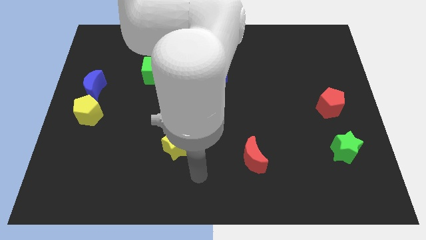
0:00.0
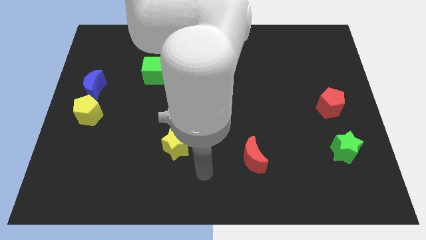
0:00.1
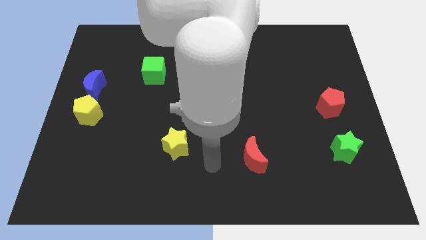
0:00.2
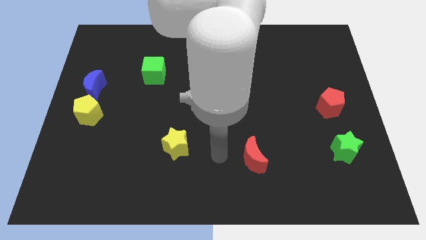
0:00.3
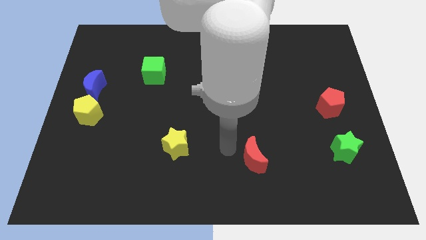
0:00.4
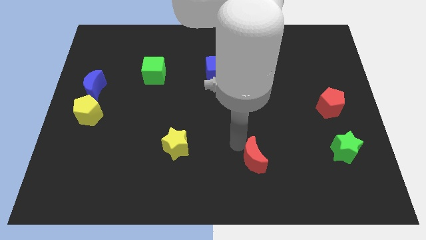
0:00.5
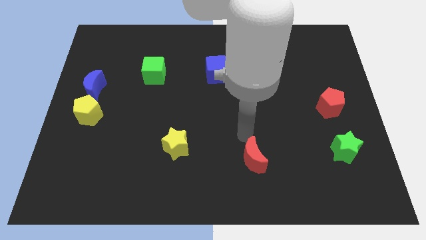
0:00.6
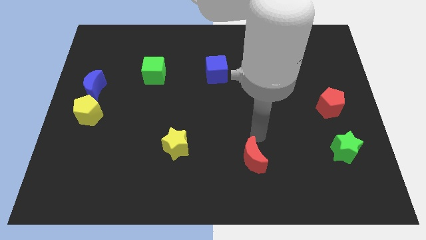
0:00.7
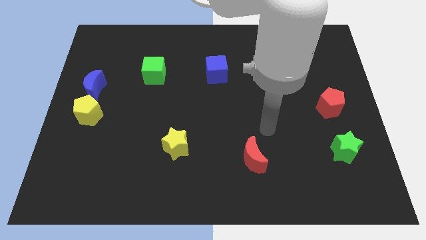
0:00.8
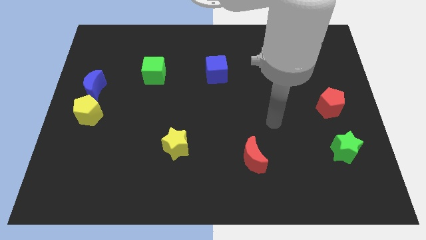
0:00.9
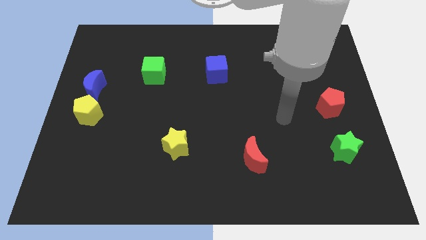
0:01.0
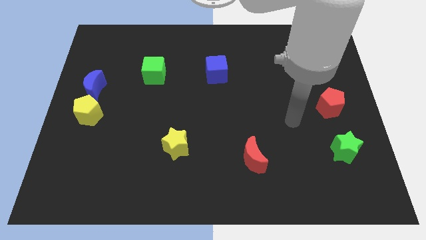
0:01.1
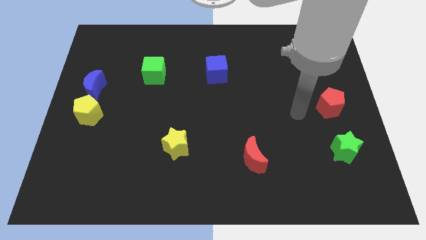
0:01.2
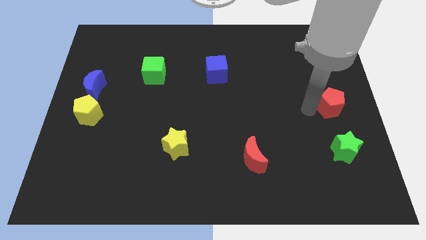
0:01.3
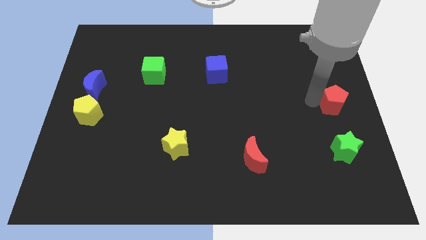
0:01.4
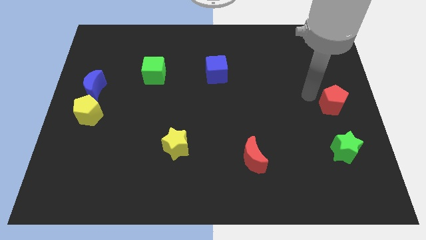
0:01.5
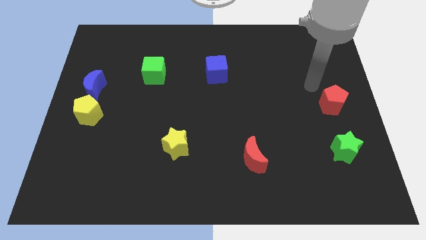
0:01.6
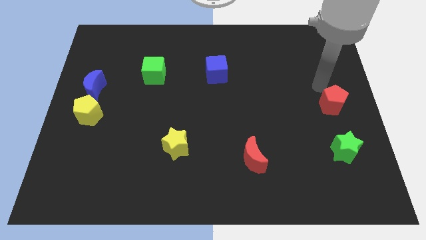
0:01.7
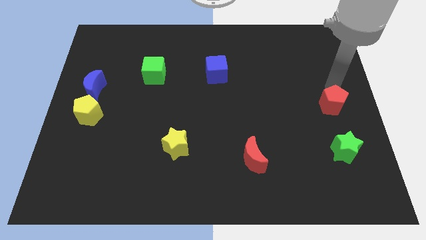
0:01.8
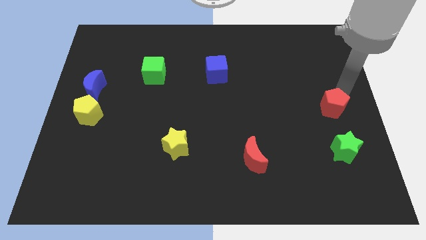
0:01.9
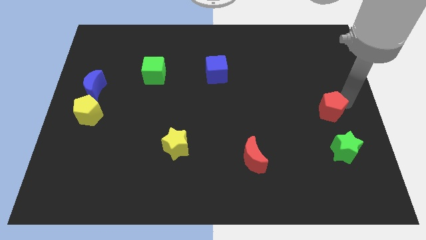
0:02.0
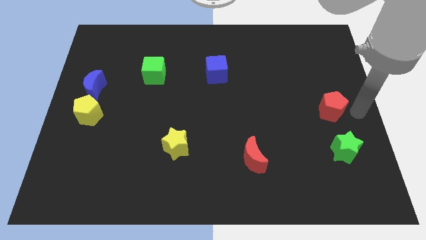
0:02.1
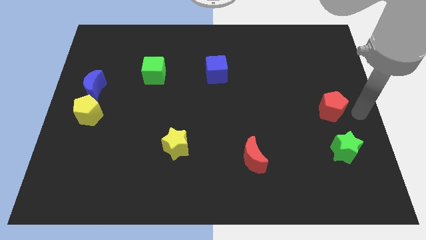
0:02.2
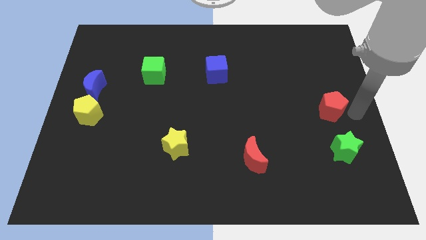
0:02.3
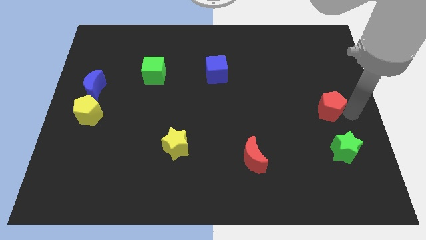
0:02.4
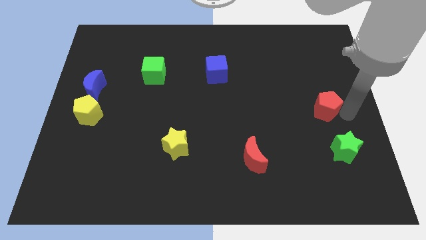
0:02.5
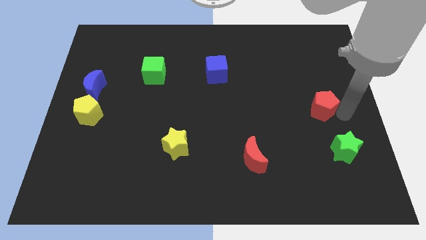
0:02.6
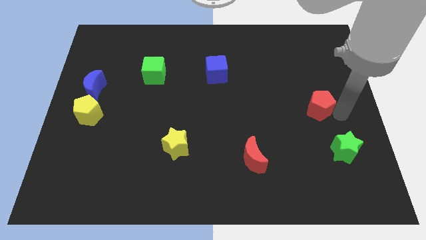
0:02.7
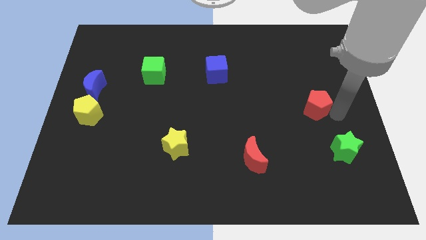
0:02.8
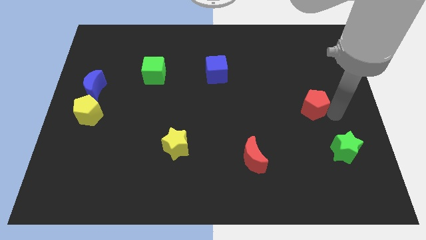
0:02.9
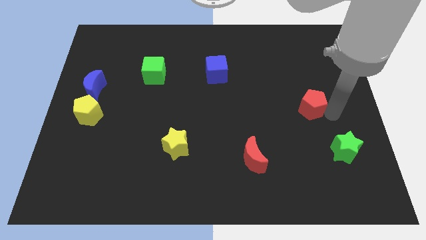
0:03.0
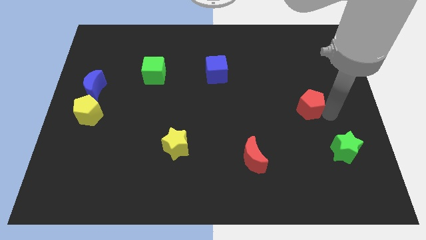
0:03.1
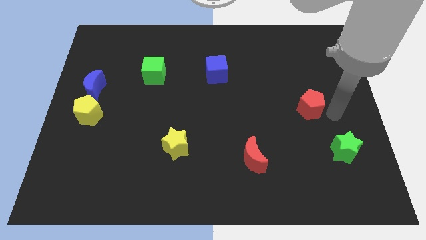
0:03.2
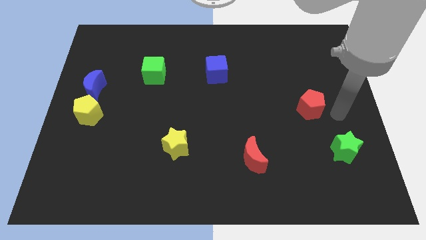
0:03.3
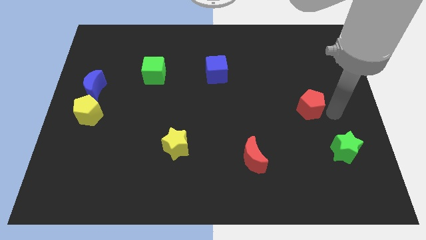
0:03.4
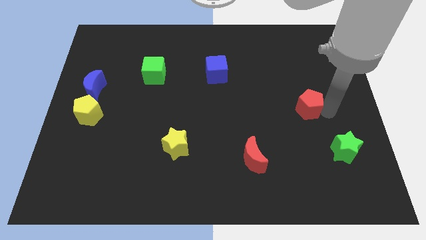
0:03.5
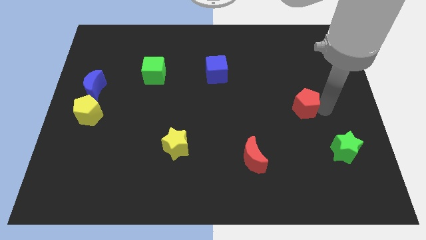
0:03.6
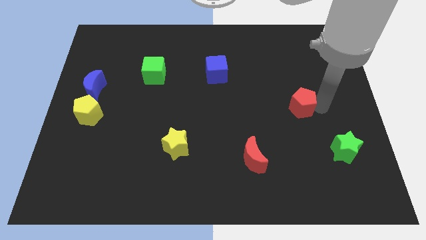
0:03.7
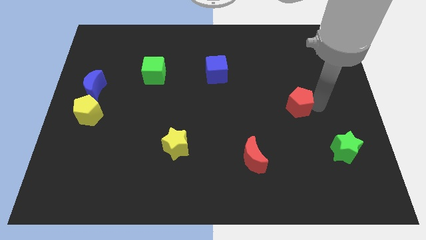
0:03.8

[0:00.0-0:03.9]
slightly push the red pentagon to the left

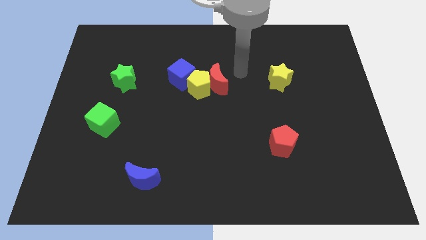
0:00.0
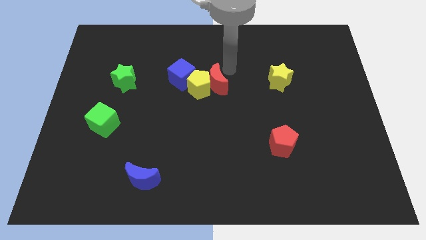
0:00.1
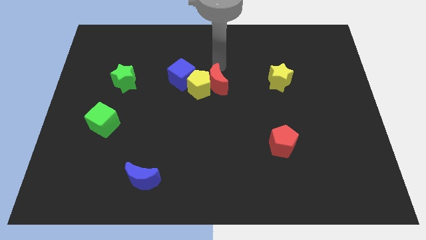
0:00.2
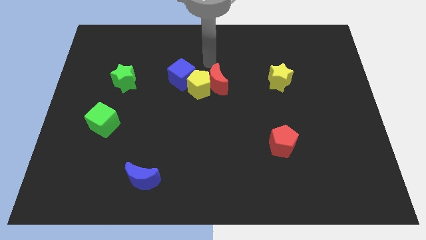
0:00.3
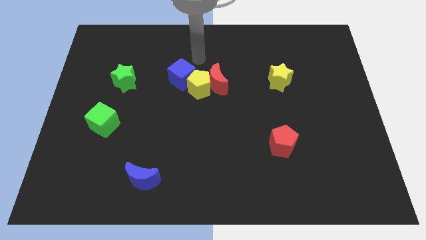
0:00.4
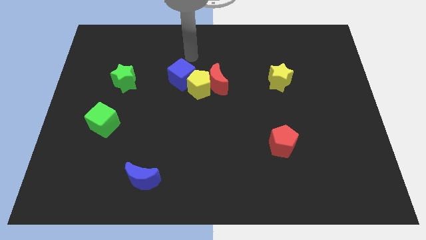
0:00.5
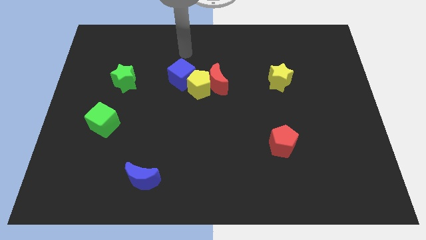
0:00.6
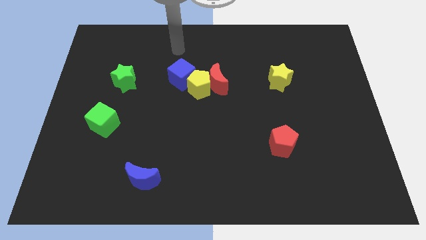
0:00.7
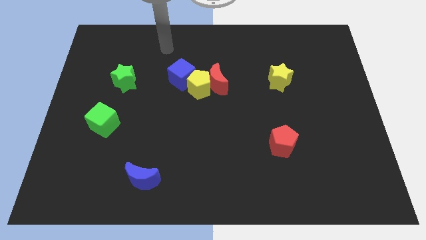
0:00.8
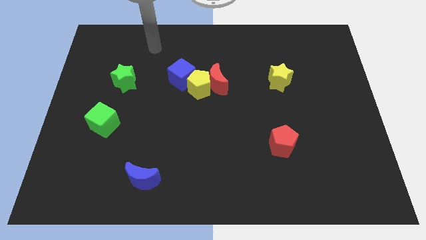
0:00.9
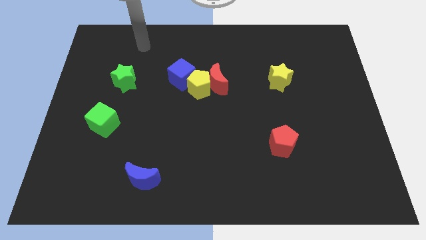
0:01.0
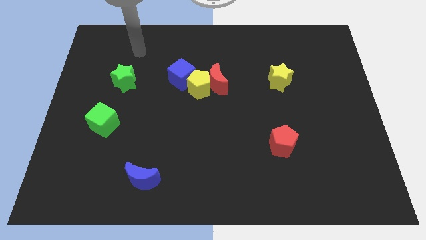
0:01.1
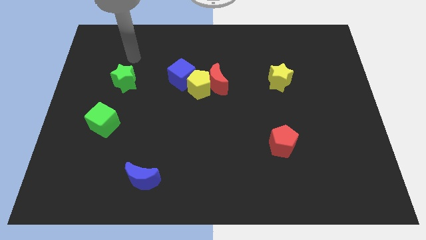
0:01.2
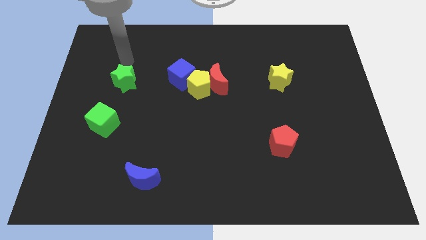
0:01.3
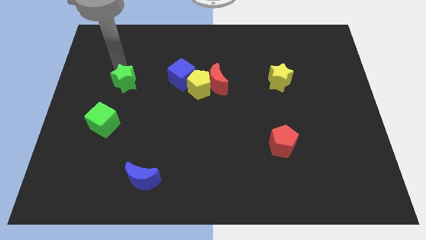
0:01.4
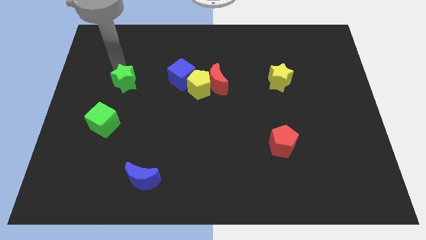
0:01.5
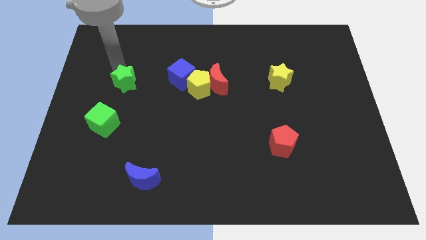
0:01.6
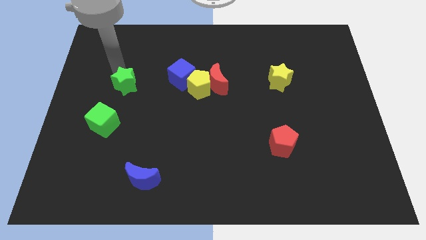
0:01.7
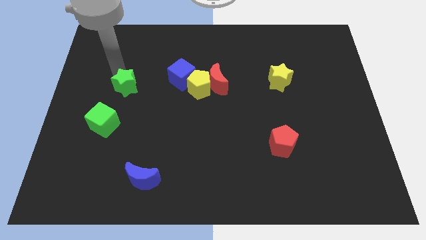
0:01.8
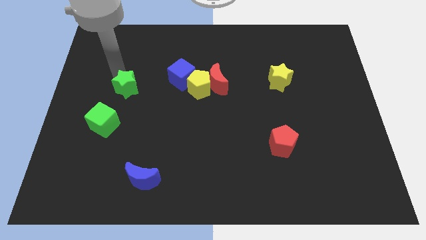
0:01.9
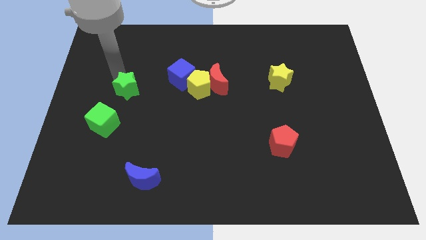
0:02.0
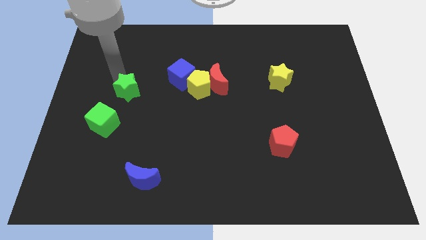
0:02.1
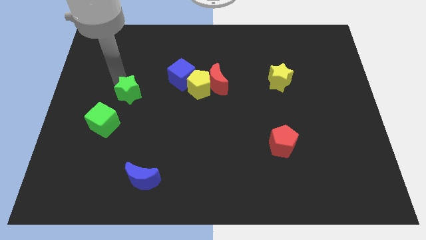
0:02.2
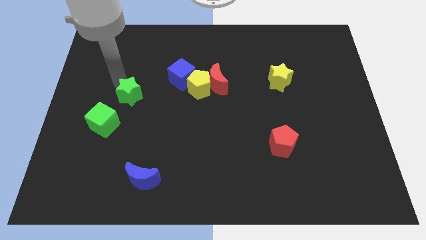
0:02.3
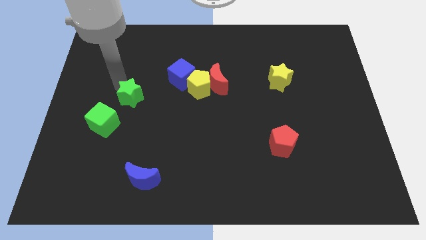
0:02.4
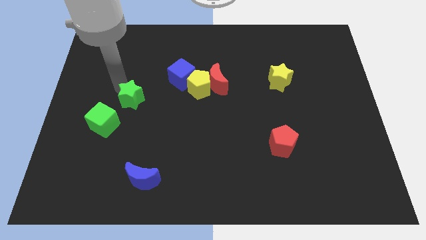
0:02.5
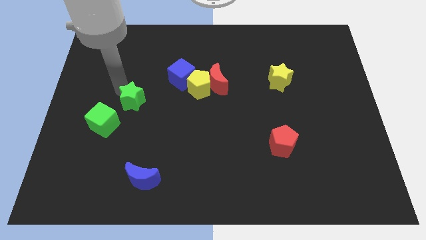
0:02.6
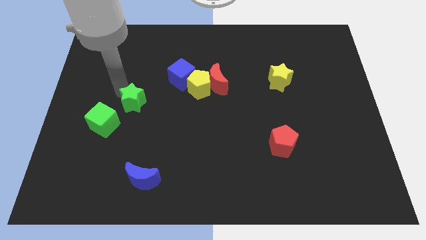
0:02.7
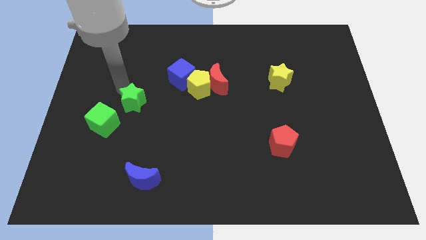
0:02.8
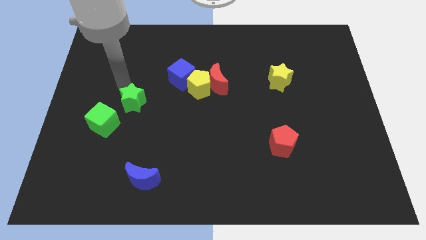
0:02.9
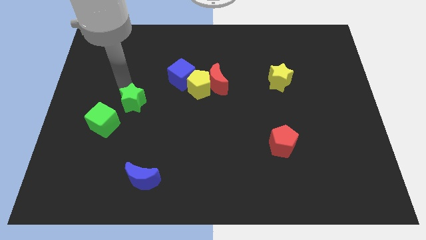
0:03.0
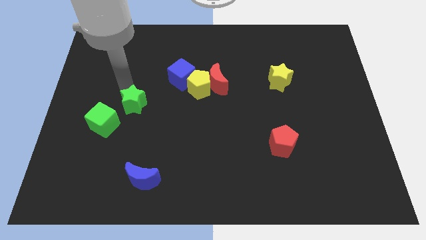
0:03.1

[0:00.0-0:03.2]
slightly slide the green star downwards

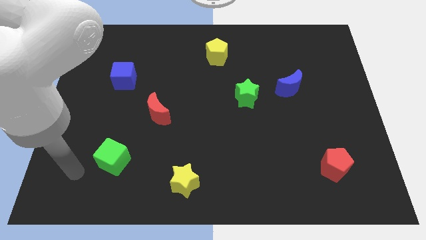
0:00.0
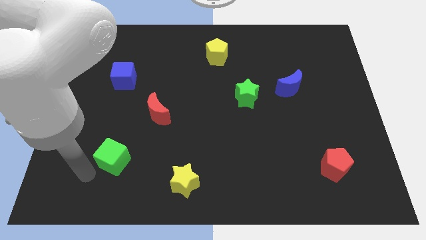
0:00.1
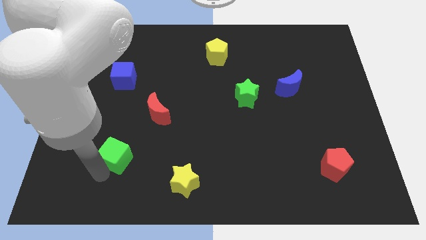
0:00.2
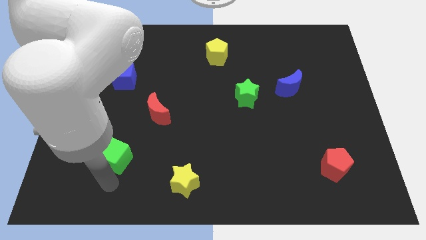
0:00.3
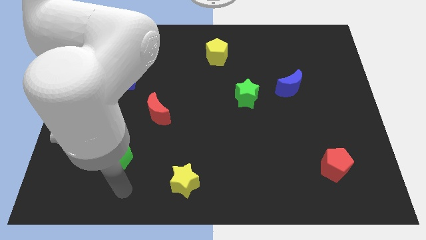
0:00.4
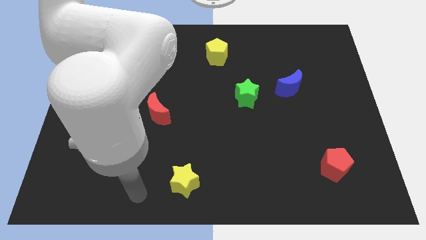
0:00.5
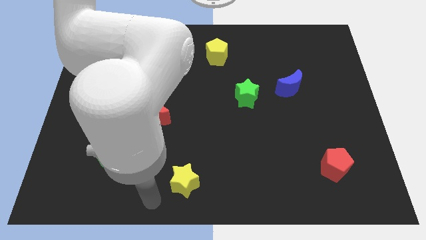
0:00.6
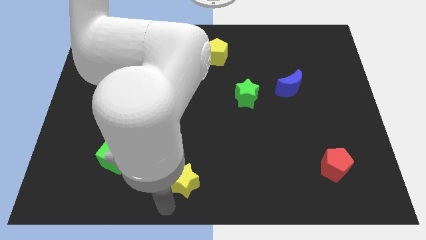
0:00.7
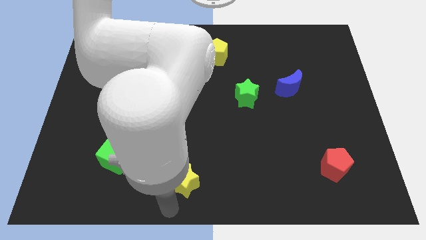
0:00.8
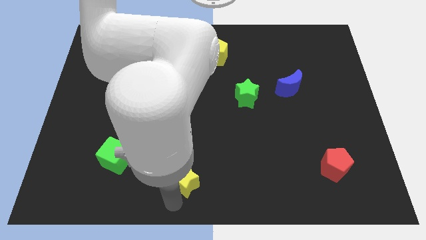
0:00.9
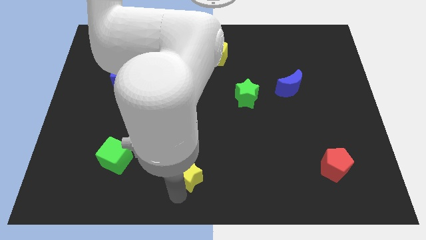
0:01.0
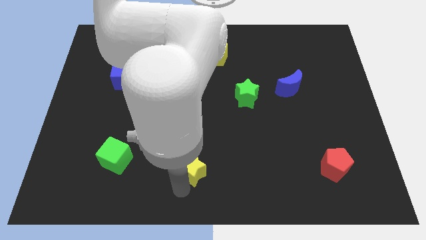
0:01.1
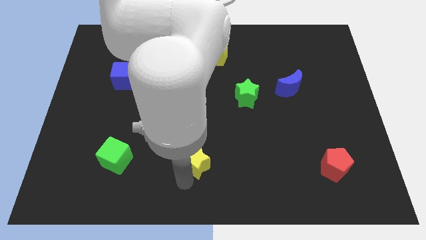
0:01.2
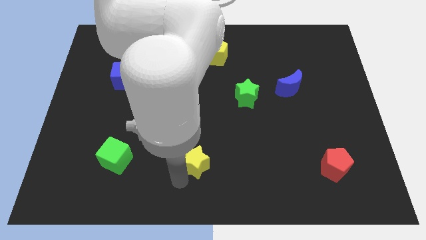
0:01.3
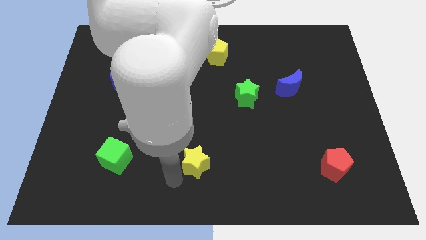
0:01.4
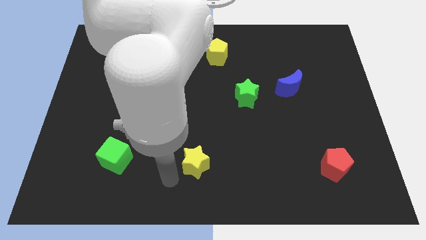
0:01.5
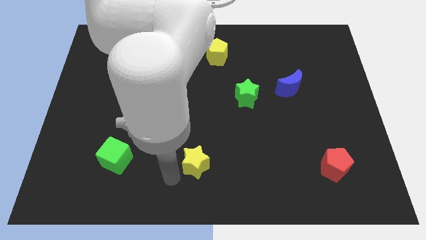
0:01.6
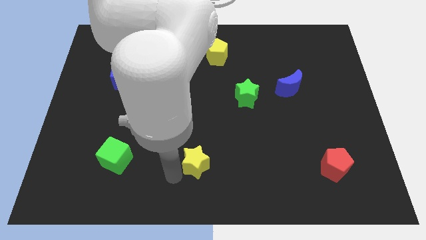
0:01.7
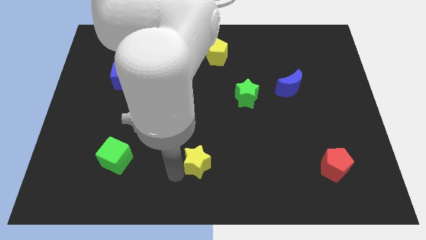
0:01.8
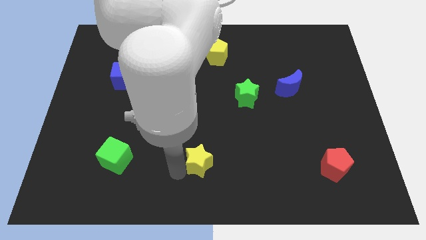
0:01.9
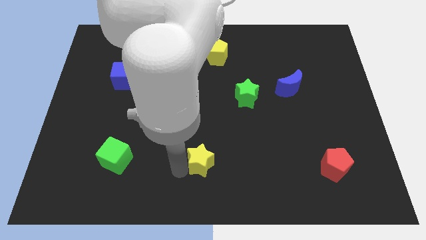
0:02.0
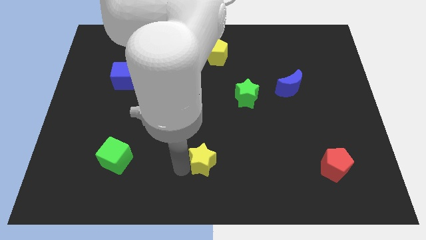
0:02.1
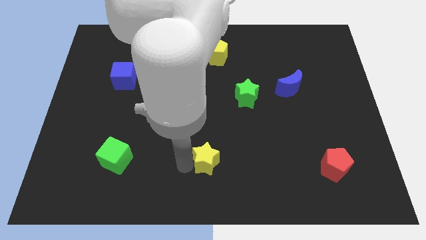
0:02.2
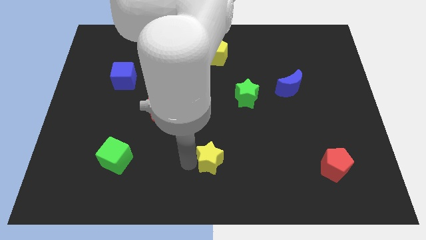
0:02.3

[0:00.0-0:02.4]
slightly push the yellow star upwards and to the right
